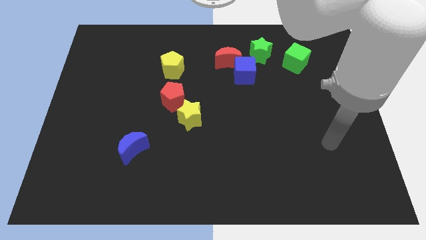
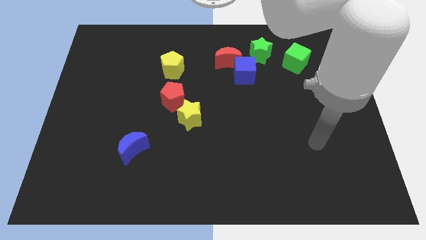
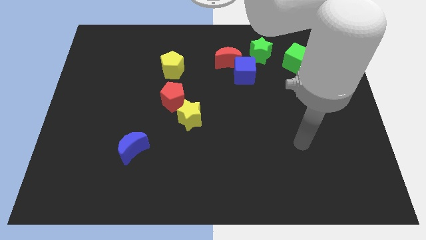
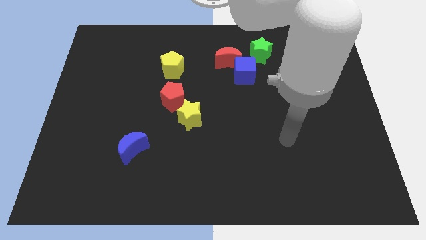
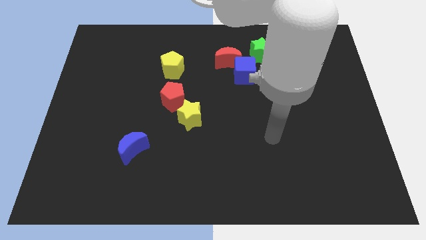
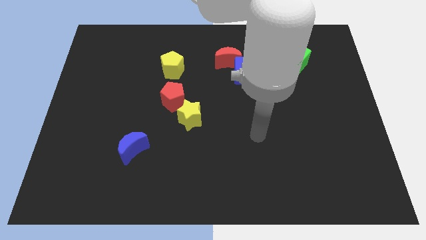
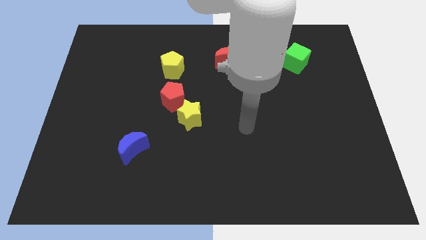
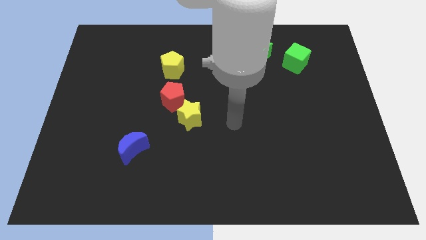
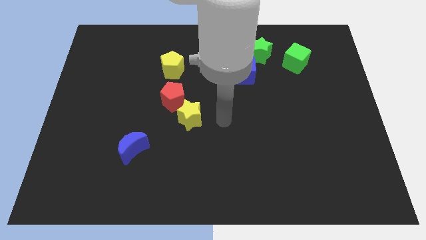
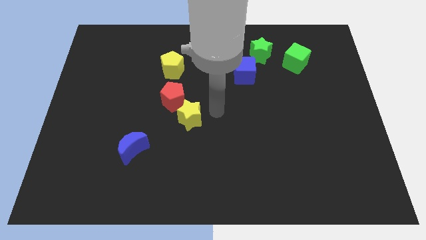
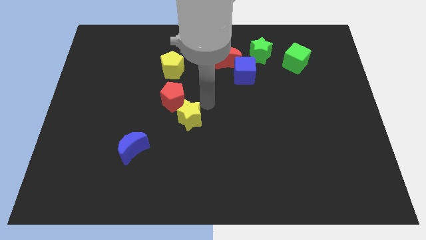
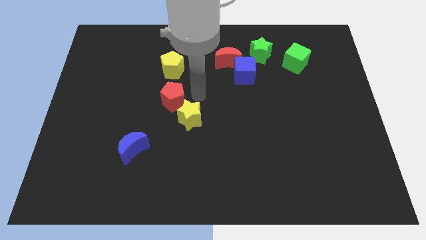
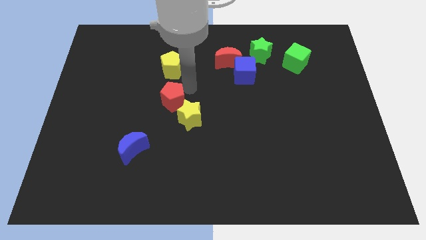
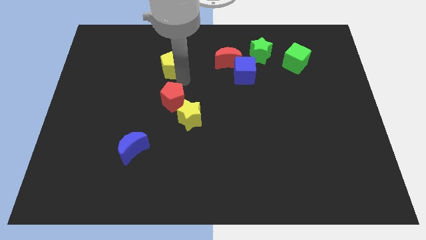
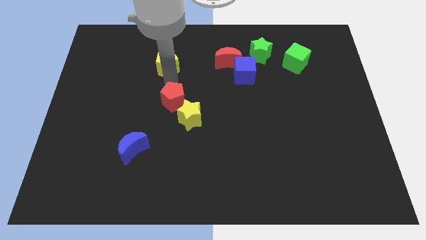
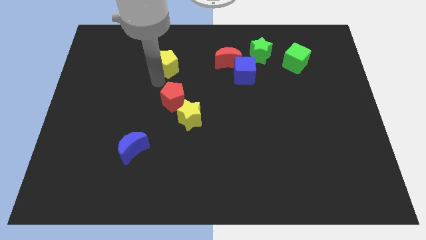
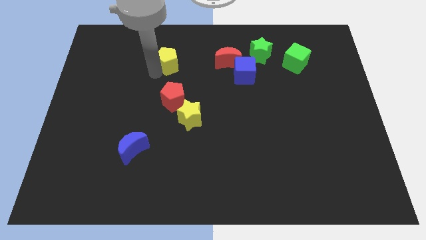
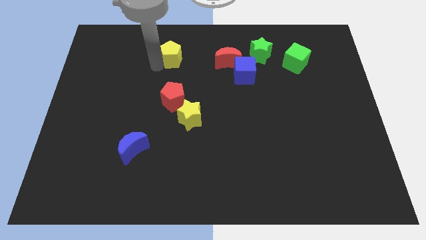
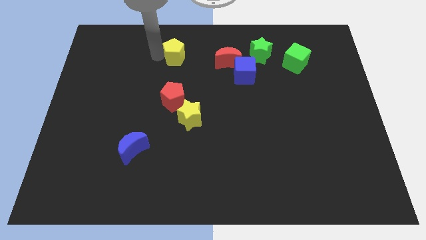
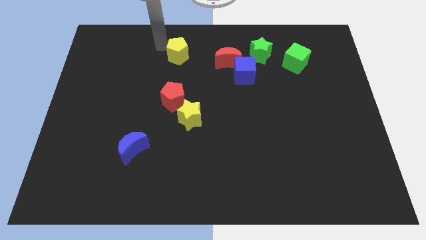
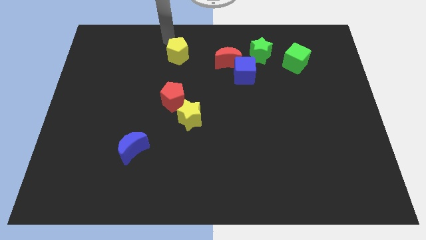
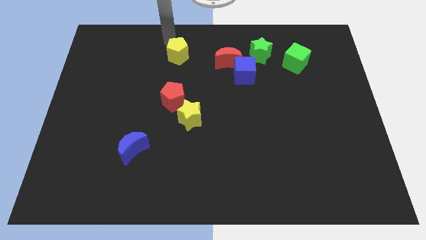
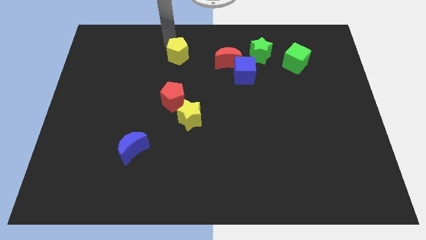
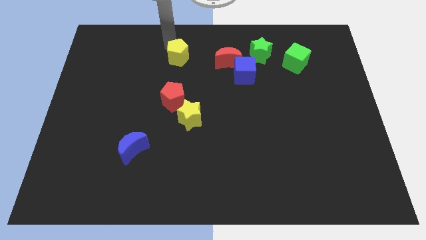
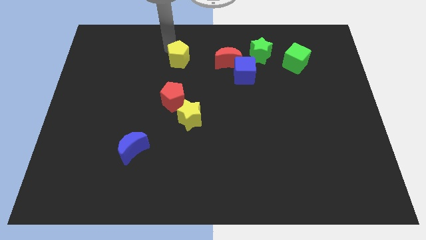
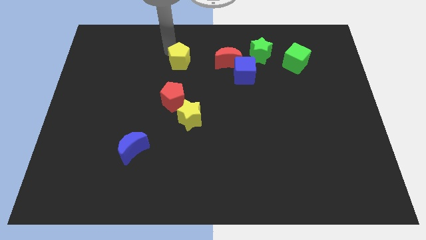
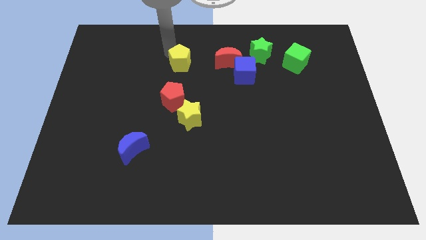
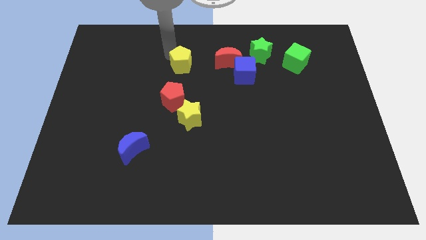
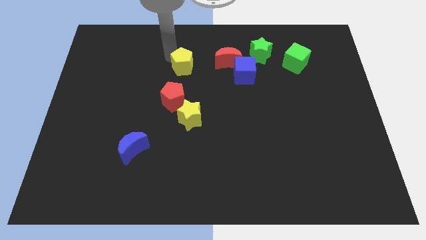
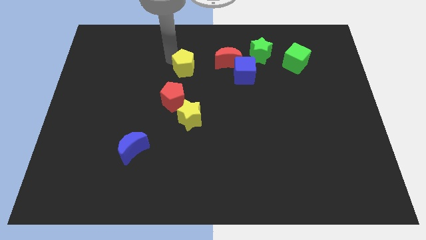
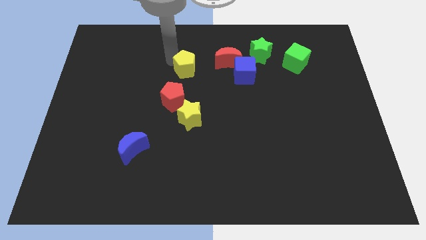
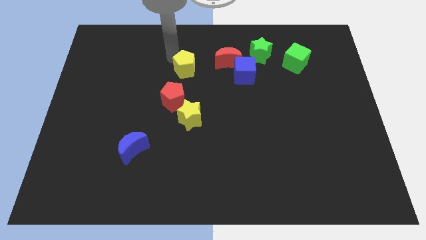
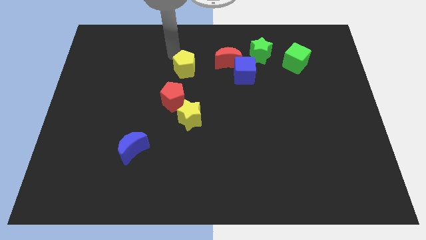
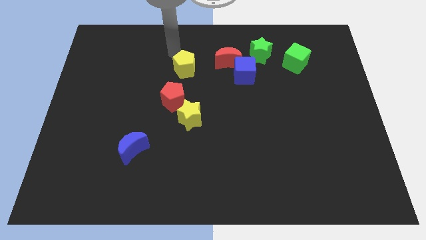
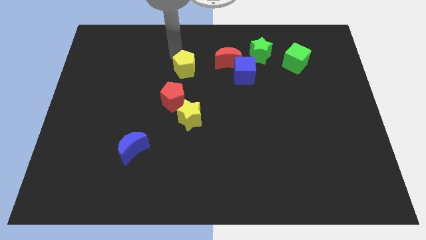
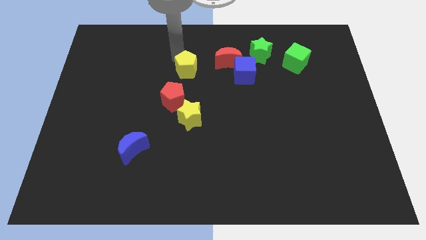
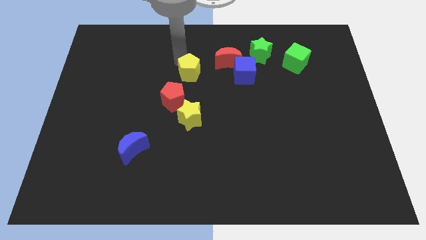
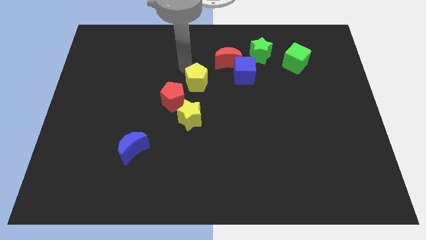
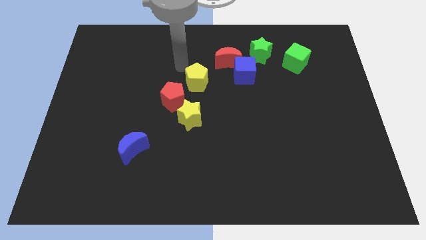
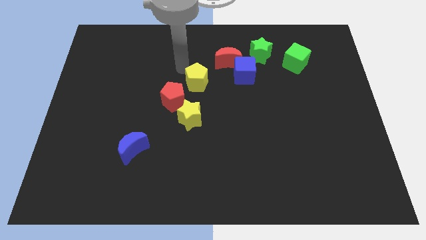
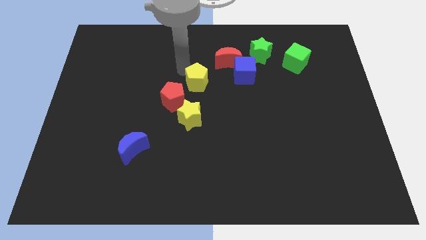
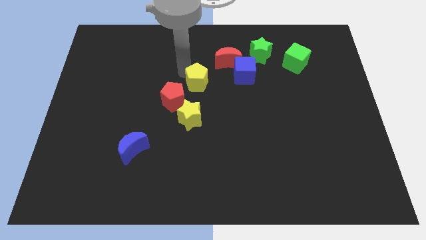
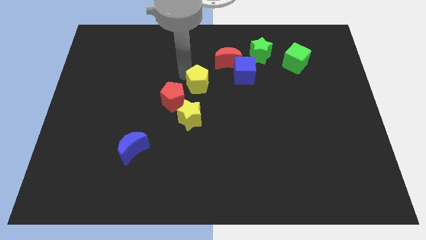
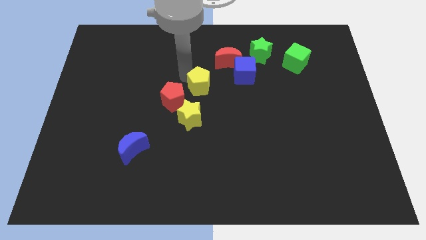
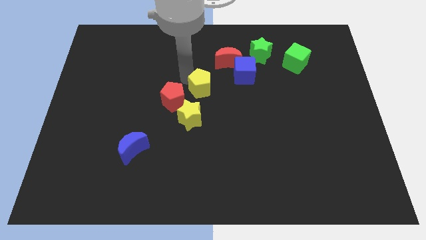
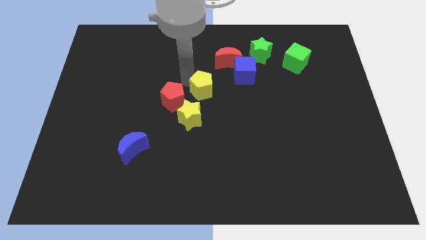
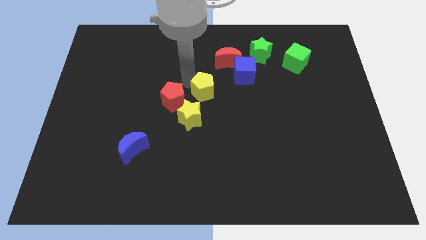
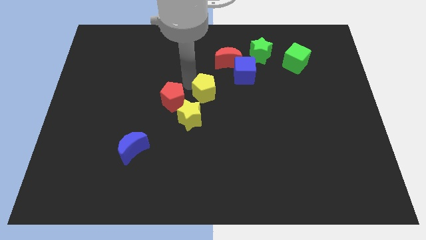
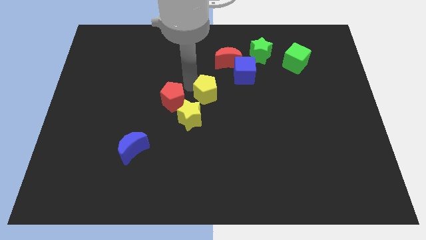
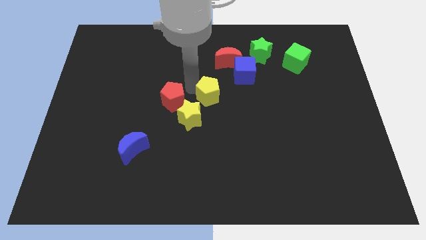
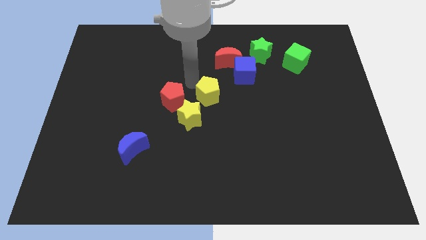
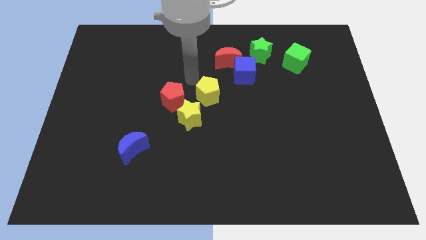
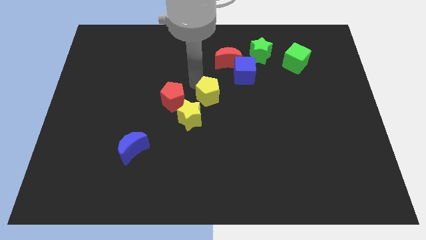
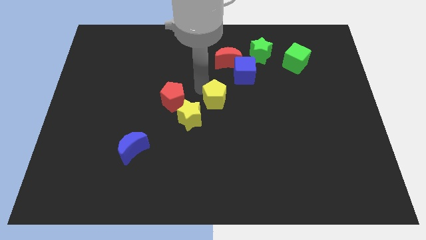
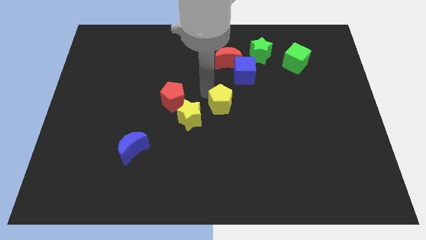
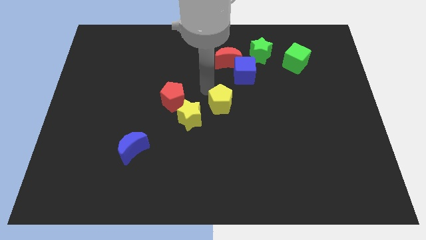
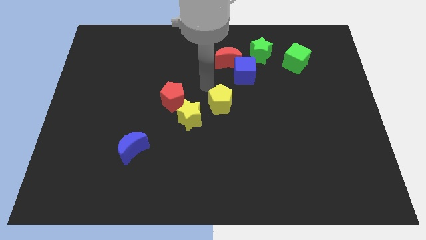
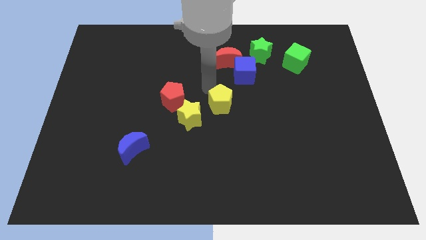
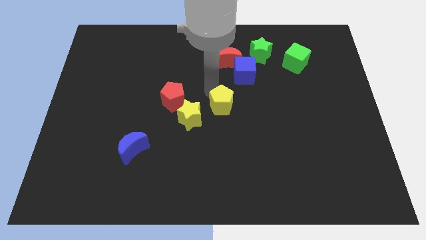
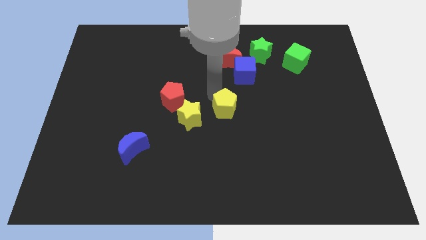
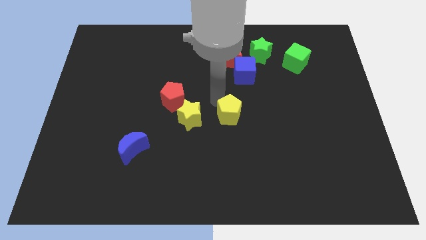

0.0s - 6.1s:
push the yellow pentagon diagonally down and to the right

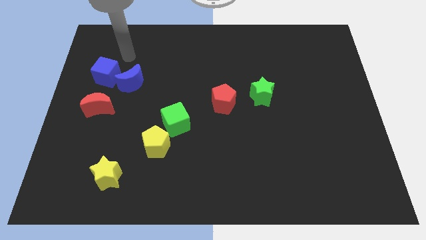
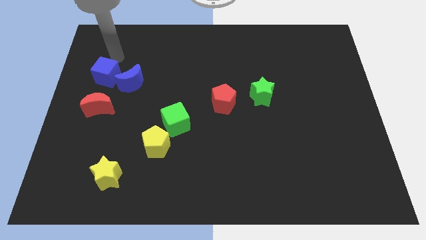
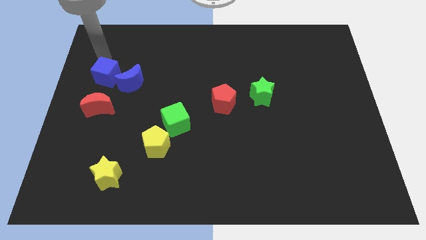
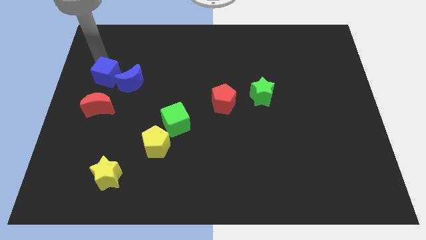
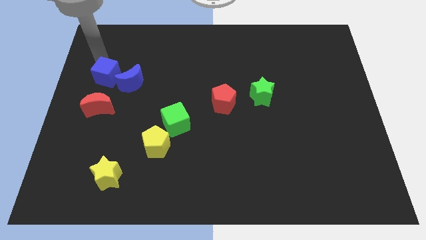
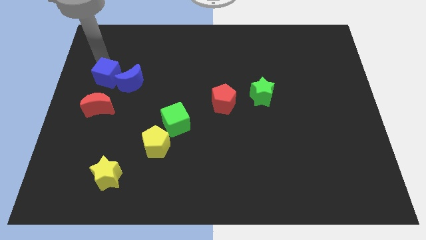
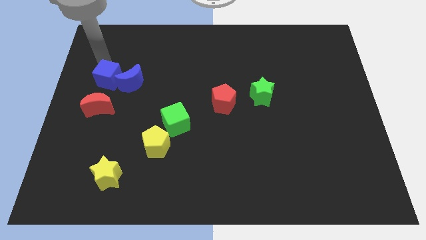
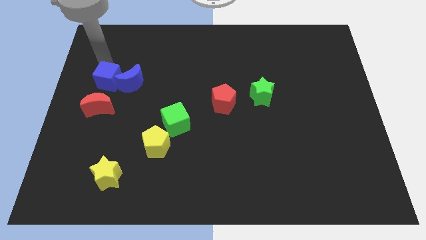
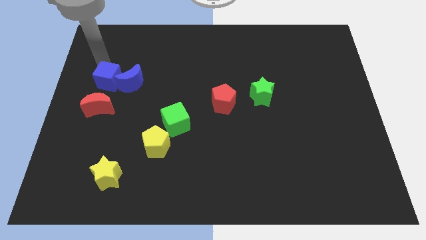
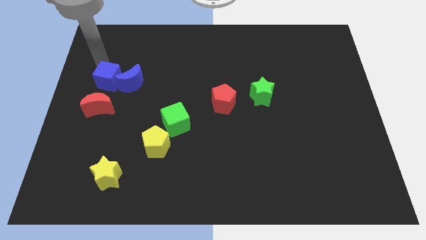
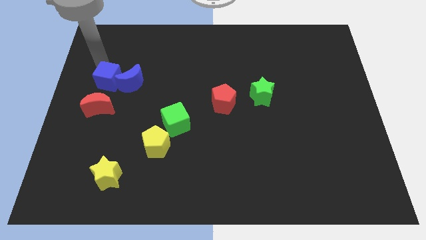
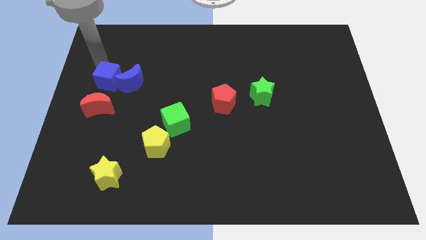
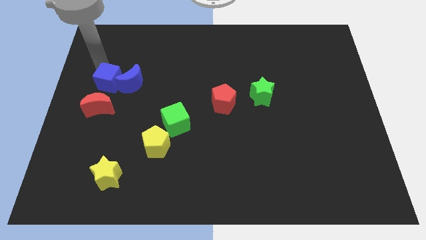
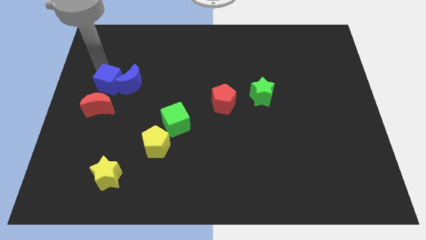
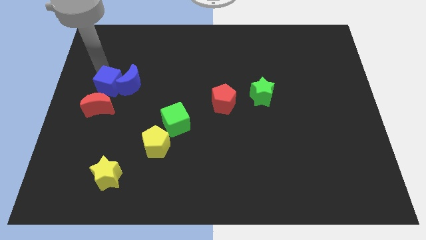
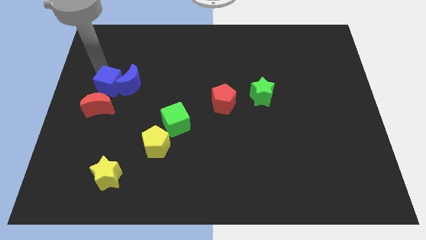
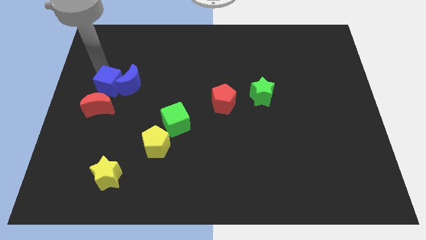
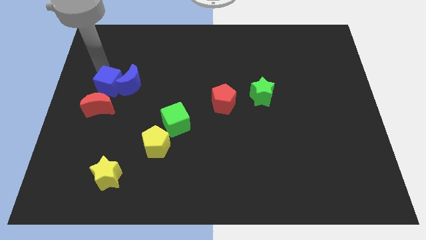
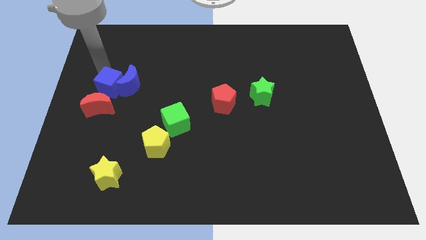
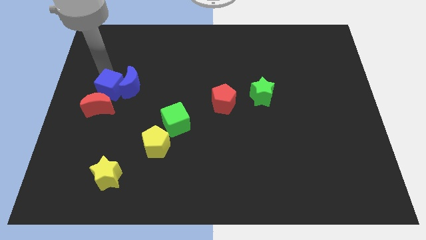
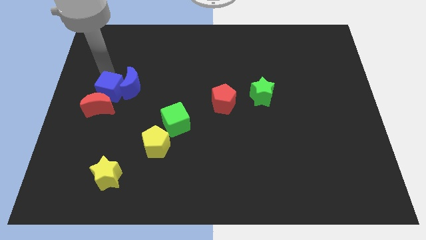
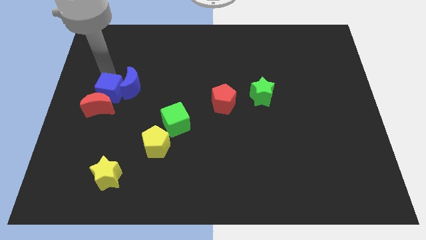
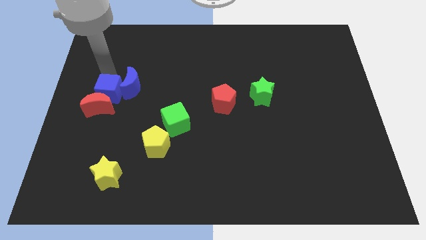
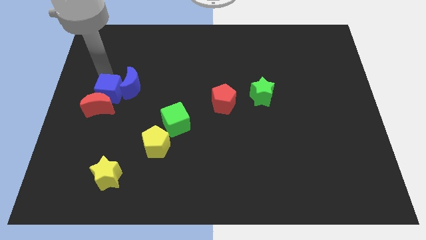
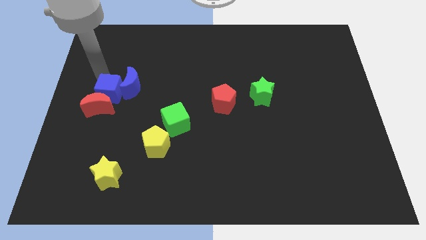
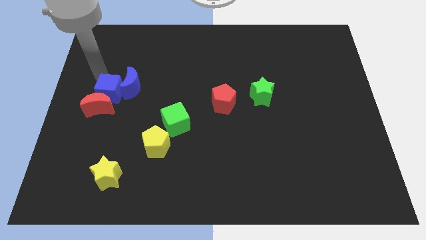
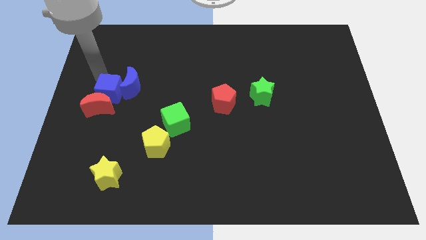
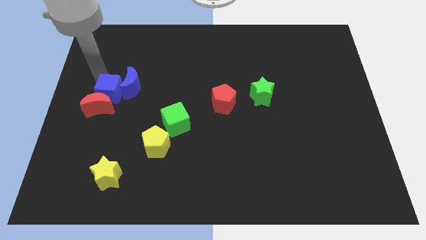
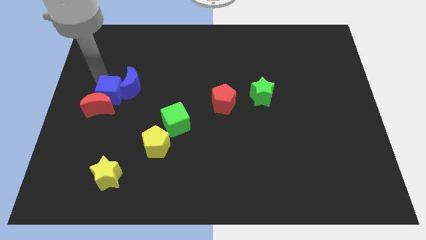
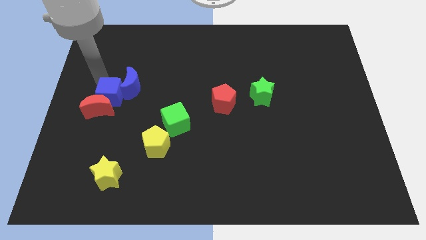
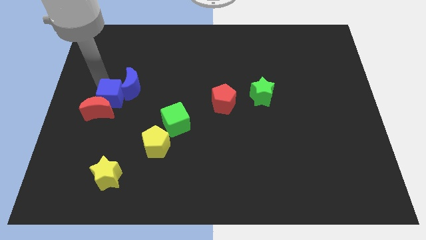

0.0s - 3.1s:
move the blue cube down a bit
